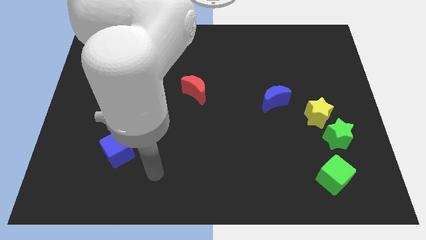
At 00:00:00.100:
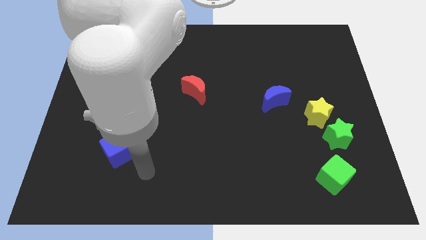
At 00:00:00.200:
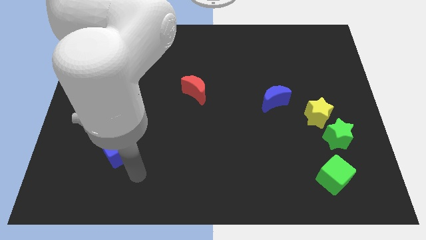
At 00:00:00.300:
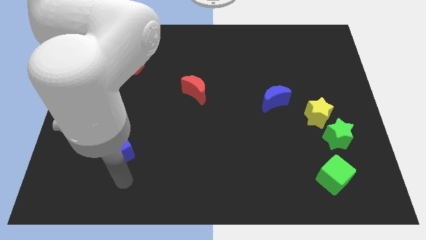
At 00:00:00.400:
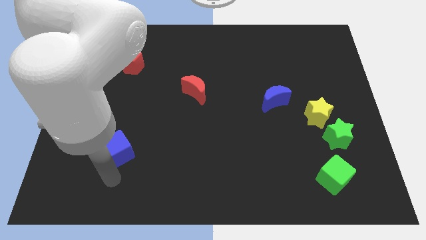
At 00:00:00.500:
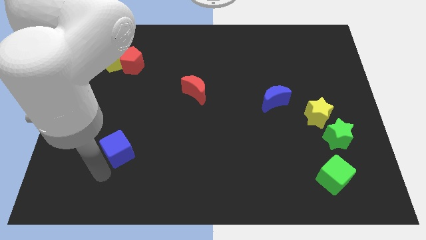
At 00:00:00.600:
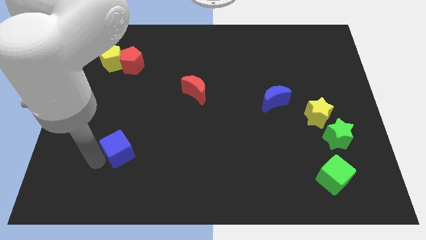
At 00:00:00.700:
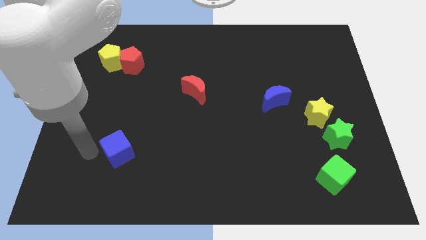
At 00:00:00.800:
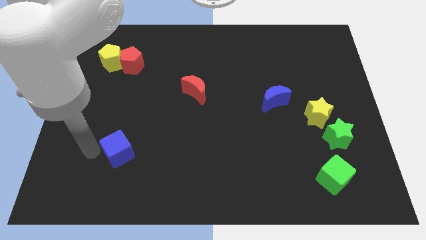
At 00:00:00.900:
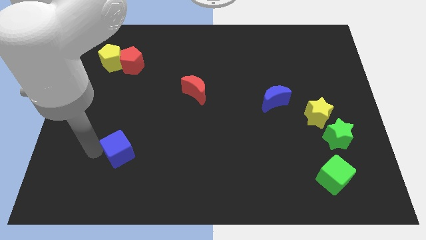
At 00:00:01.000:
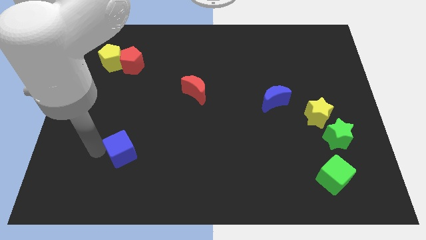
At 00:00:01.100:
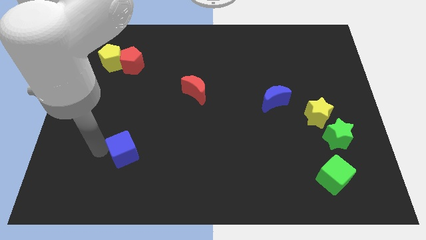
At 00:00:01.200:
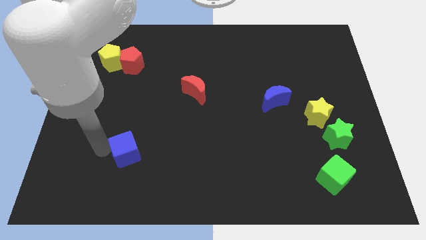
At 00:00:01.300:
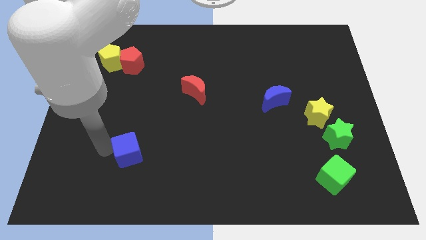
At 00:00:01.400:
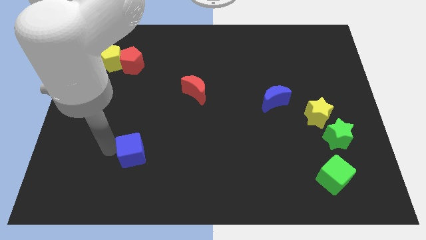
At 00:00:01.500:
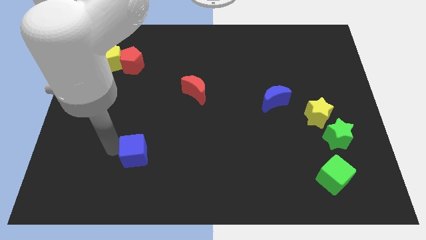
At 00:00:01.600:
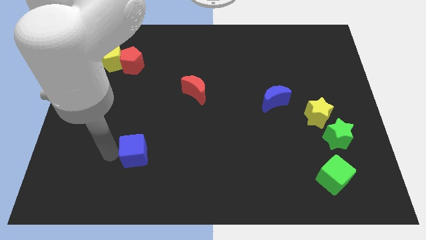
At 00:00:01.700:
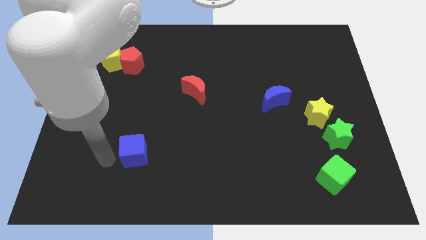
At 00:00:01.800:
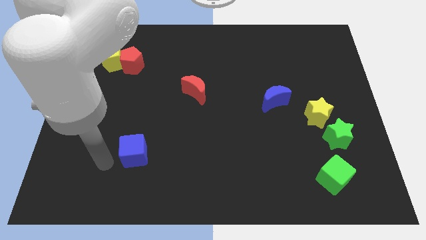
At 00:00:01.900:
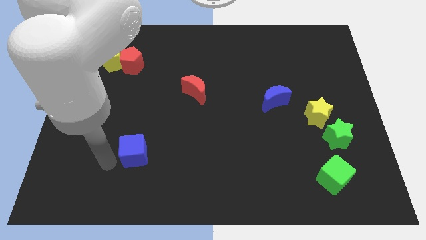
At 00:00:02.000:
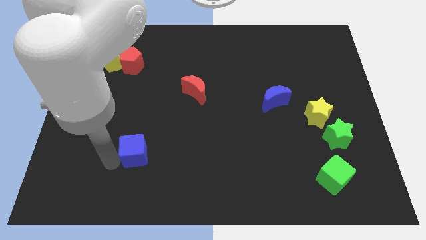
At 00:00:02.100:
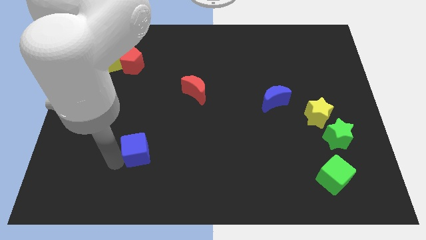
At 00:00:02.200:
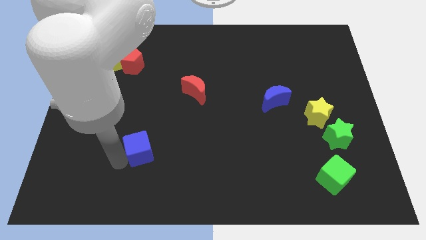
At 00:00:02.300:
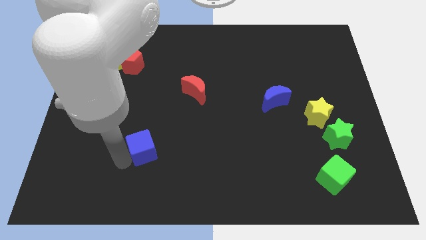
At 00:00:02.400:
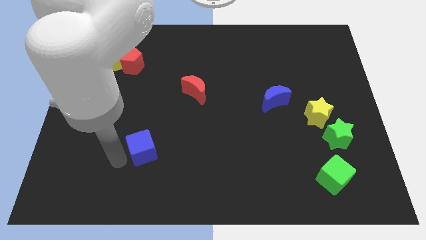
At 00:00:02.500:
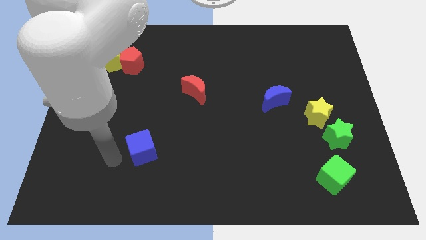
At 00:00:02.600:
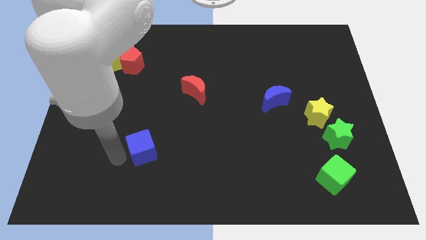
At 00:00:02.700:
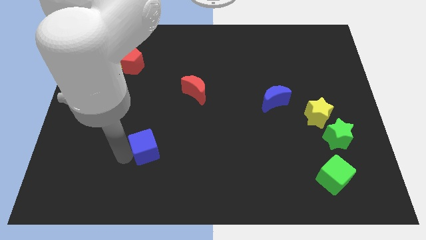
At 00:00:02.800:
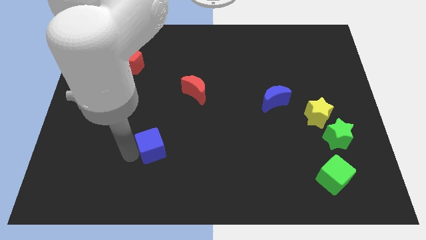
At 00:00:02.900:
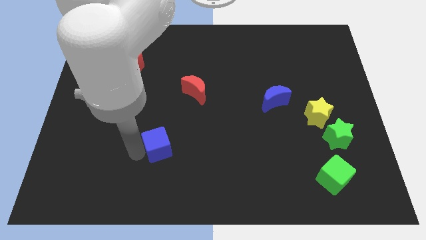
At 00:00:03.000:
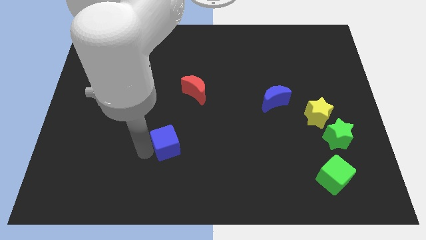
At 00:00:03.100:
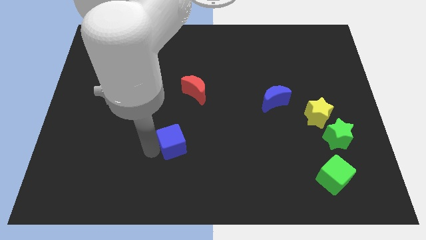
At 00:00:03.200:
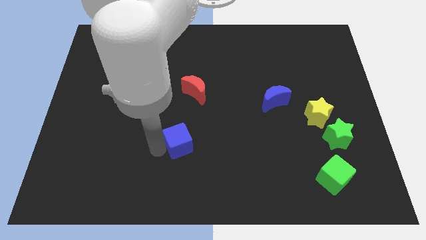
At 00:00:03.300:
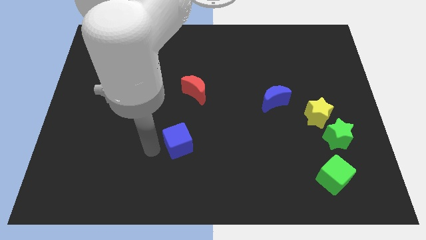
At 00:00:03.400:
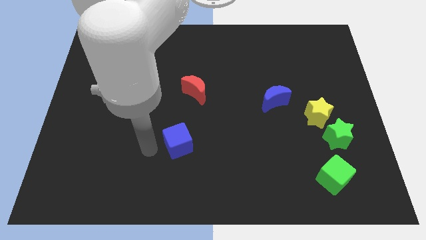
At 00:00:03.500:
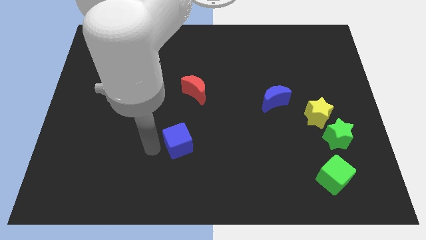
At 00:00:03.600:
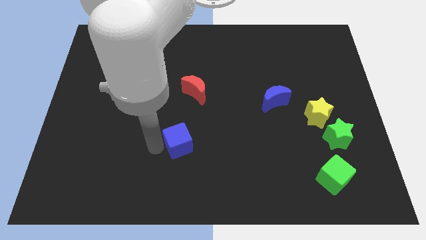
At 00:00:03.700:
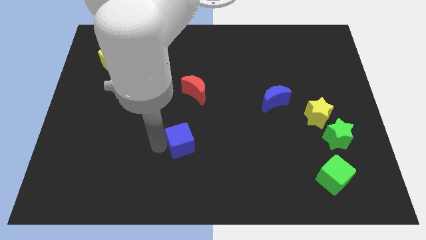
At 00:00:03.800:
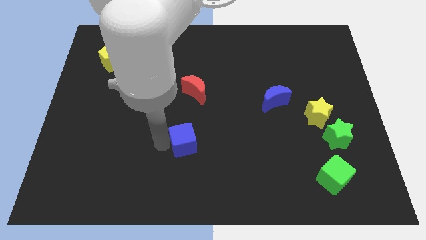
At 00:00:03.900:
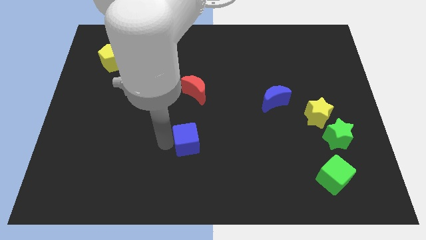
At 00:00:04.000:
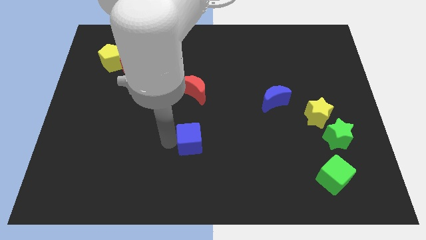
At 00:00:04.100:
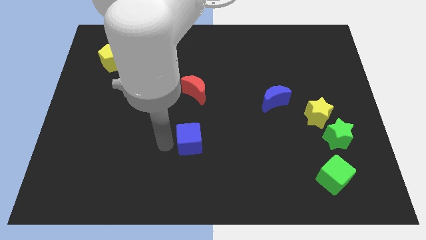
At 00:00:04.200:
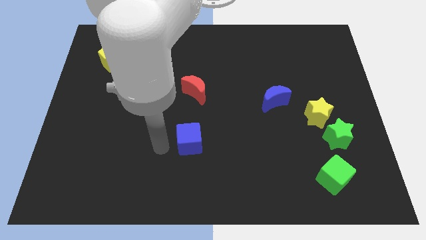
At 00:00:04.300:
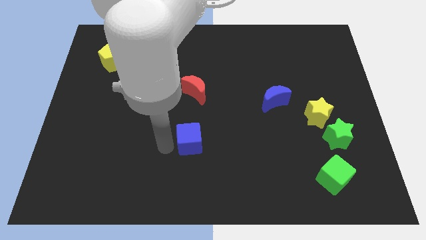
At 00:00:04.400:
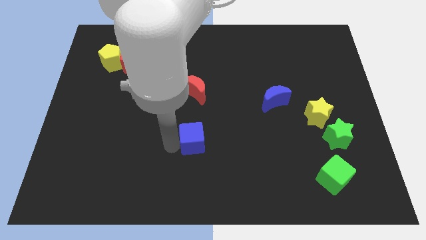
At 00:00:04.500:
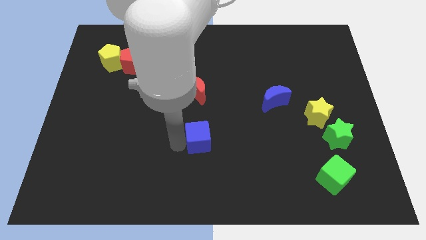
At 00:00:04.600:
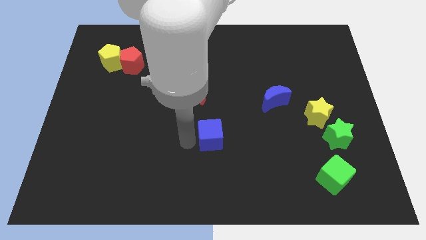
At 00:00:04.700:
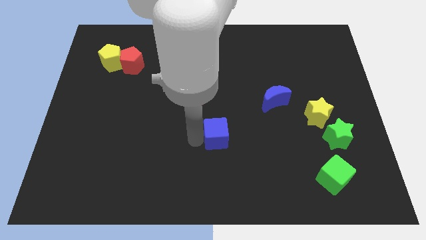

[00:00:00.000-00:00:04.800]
move the blue cube to the right

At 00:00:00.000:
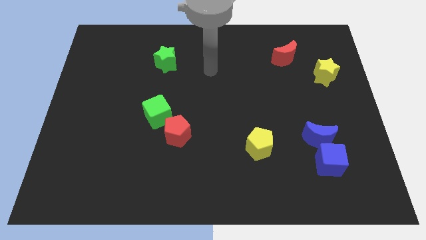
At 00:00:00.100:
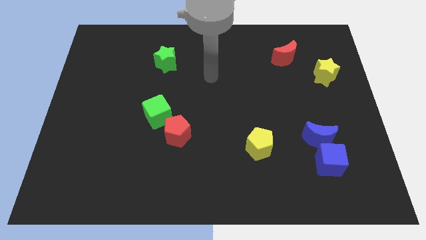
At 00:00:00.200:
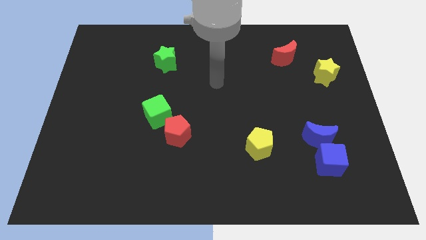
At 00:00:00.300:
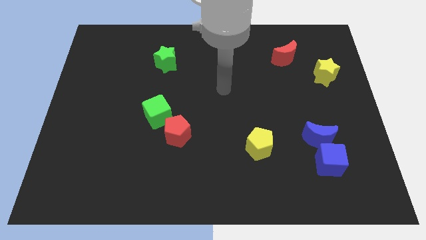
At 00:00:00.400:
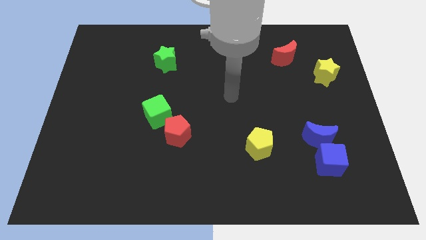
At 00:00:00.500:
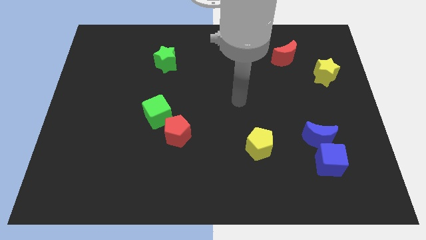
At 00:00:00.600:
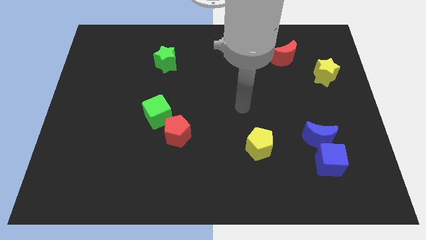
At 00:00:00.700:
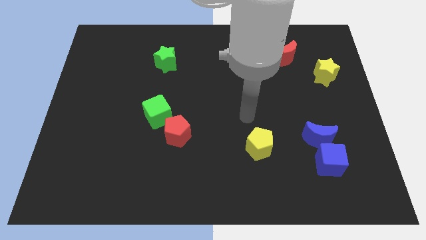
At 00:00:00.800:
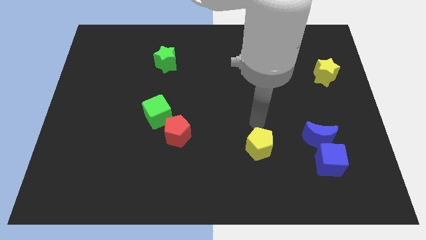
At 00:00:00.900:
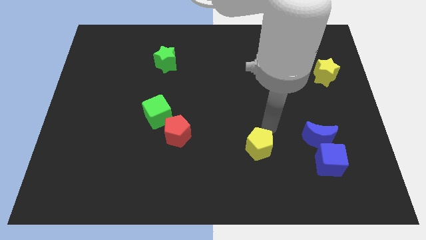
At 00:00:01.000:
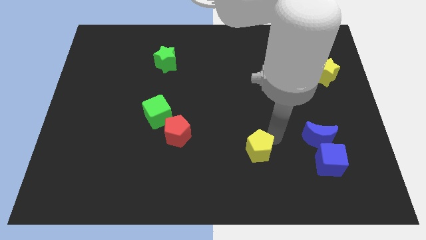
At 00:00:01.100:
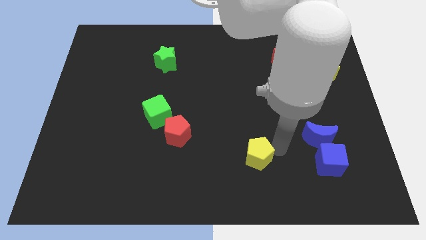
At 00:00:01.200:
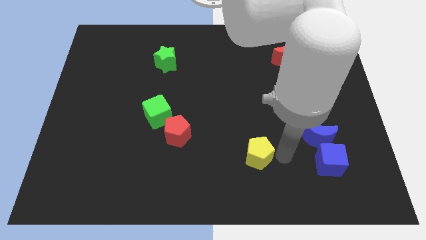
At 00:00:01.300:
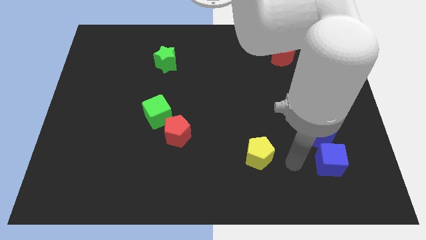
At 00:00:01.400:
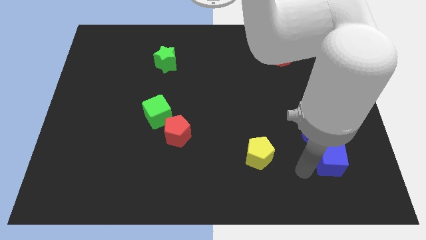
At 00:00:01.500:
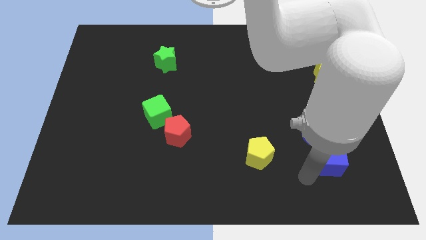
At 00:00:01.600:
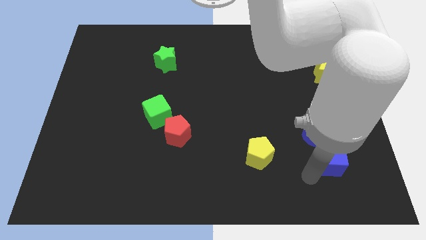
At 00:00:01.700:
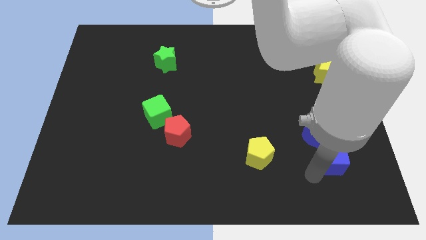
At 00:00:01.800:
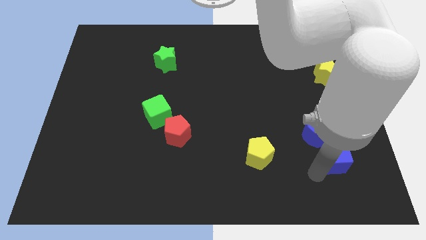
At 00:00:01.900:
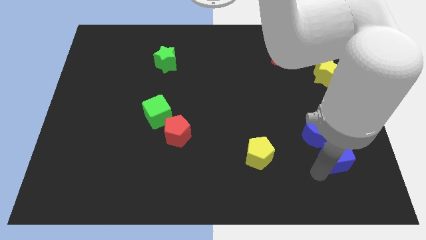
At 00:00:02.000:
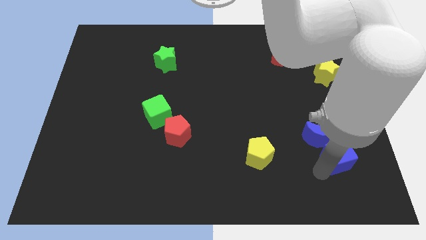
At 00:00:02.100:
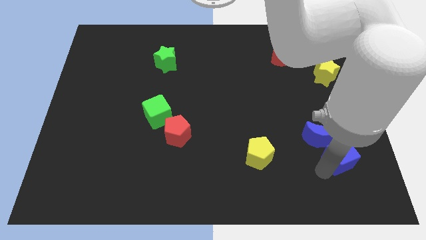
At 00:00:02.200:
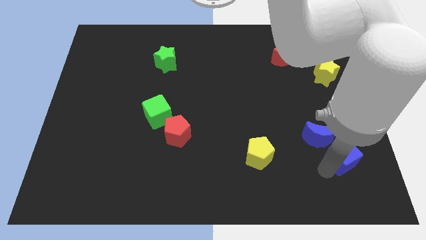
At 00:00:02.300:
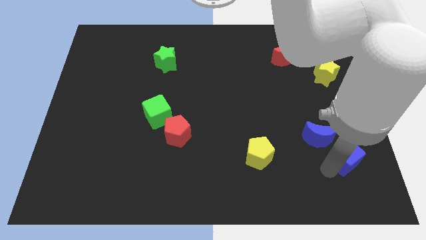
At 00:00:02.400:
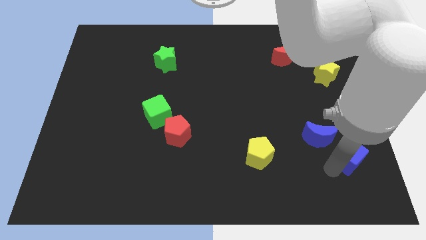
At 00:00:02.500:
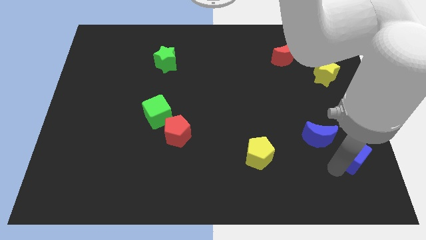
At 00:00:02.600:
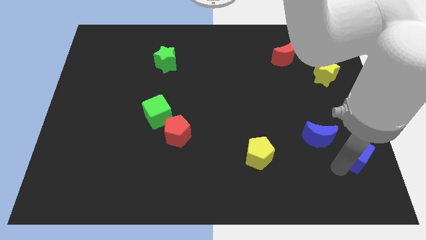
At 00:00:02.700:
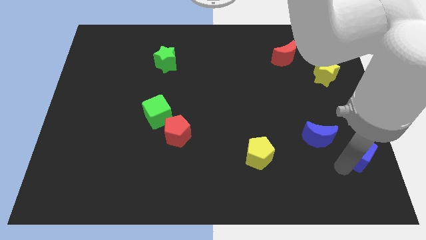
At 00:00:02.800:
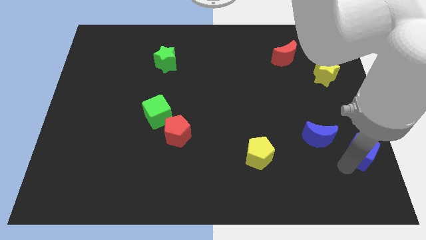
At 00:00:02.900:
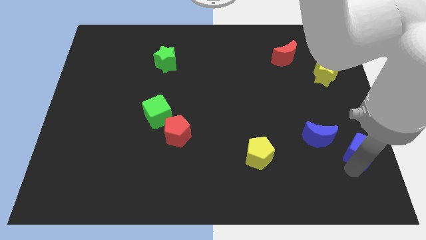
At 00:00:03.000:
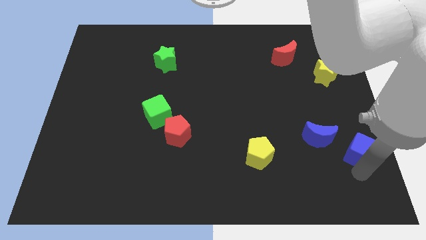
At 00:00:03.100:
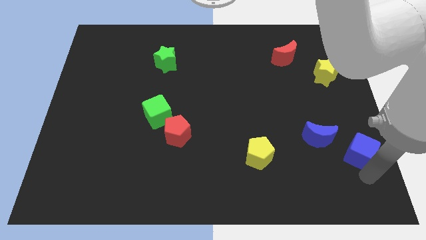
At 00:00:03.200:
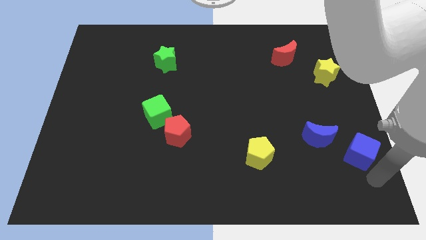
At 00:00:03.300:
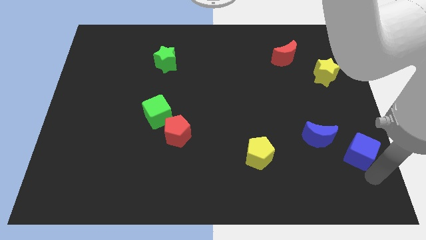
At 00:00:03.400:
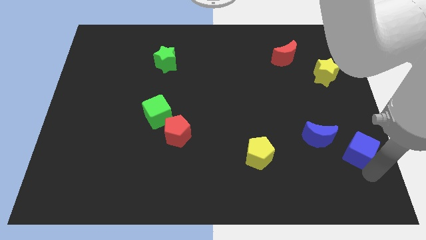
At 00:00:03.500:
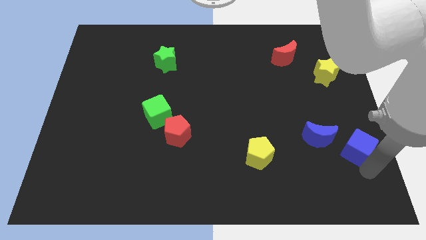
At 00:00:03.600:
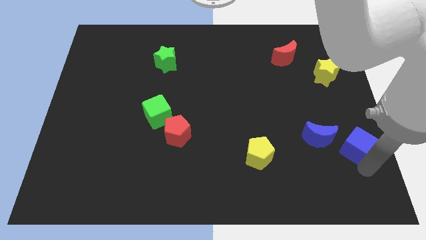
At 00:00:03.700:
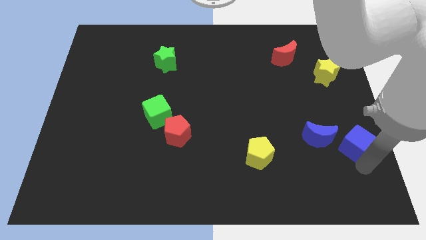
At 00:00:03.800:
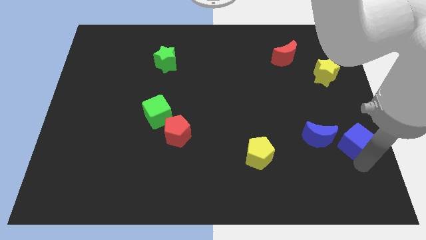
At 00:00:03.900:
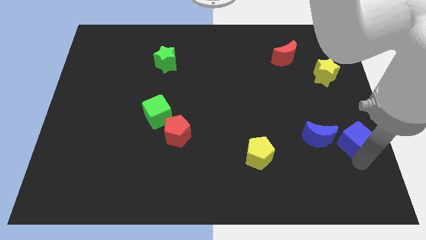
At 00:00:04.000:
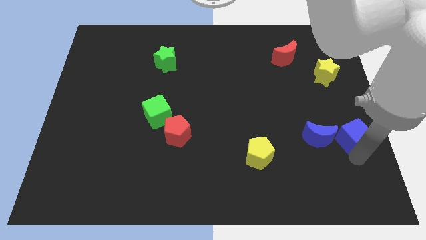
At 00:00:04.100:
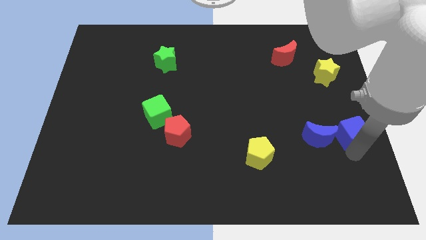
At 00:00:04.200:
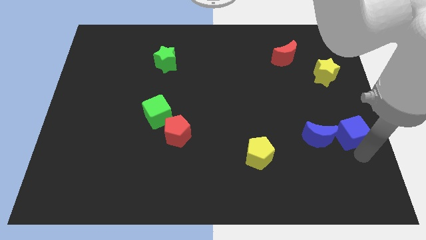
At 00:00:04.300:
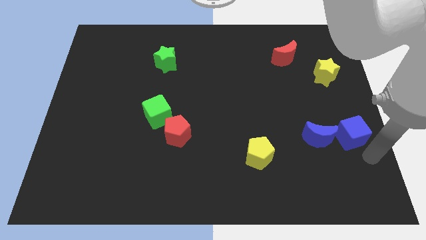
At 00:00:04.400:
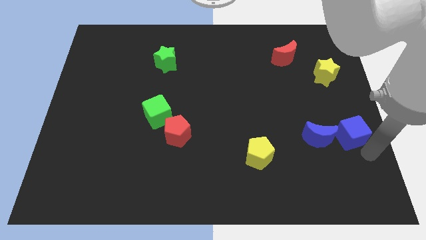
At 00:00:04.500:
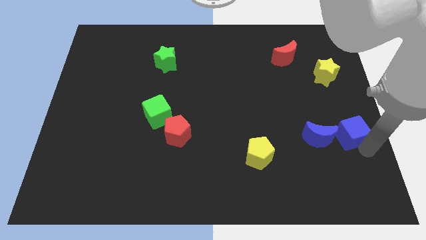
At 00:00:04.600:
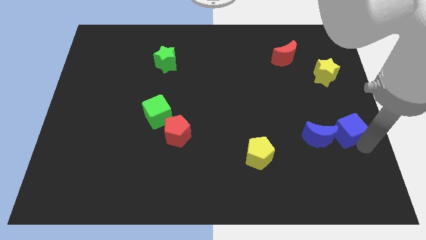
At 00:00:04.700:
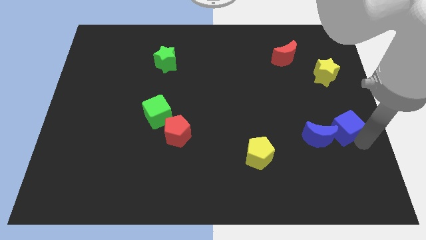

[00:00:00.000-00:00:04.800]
slightly push the blue cube up
